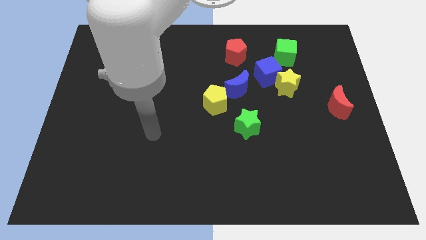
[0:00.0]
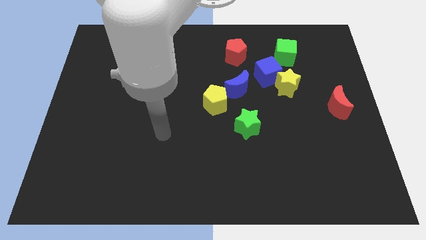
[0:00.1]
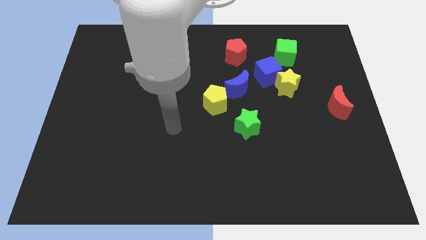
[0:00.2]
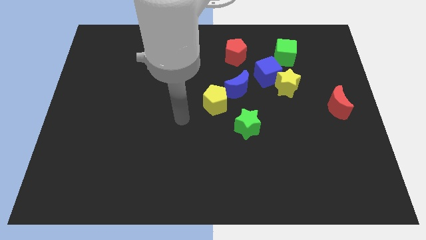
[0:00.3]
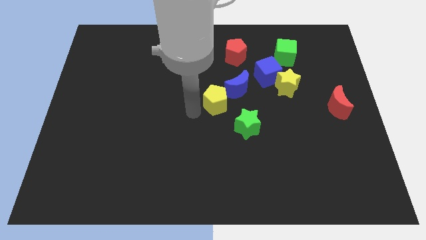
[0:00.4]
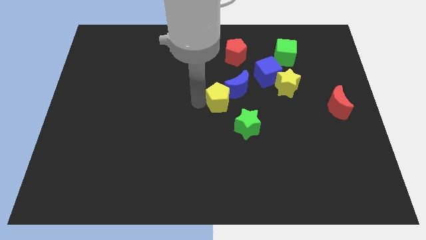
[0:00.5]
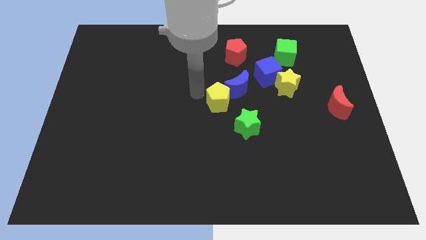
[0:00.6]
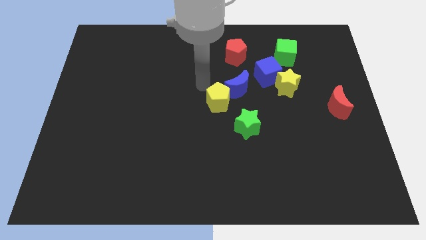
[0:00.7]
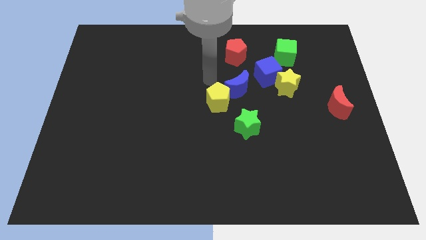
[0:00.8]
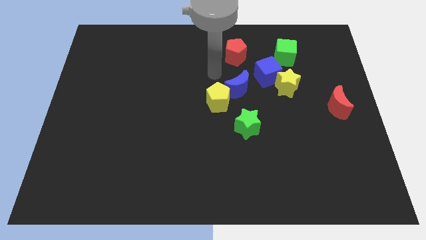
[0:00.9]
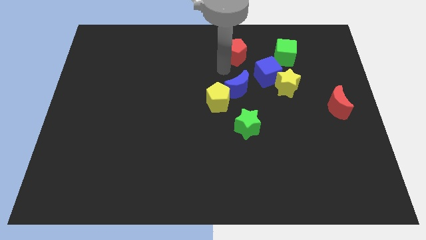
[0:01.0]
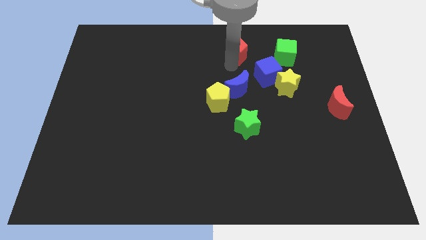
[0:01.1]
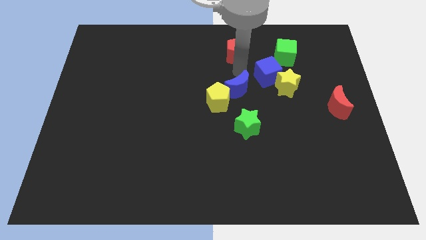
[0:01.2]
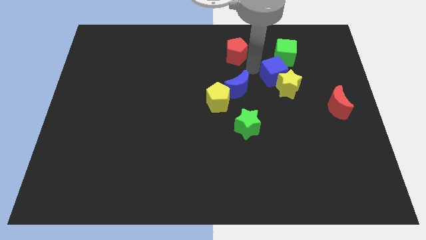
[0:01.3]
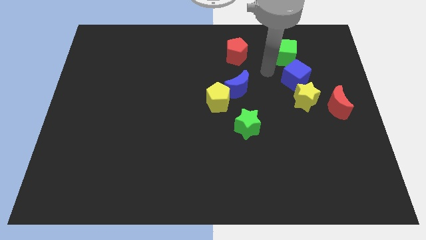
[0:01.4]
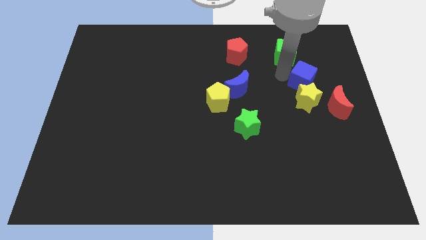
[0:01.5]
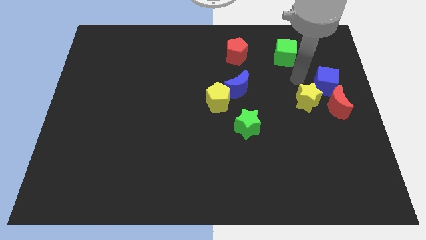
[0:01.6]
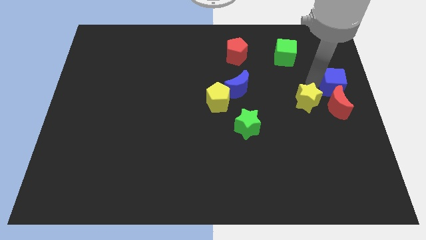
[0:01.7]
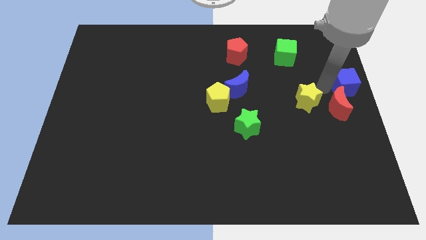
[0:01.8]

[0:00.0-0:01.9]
separate the yellow star from the blue cube

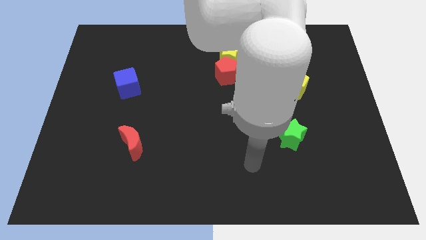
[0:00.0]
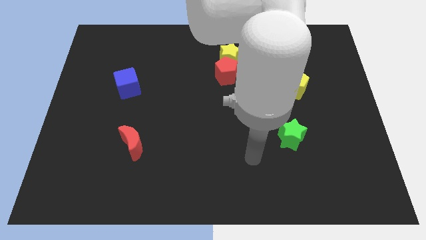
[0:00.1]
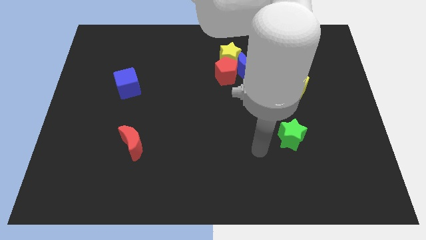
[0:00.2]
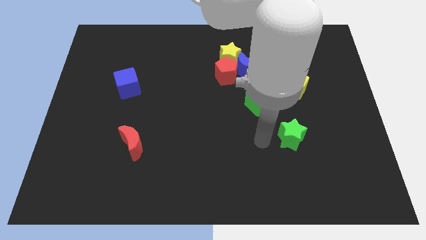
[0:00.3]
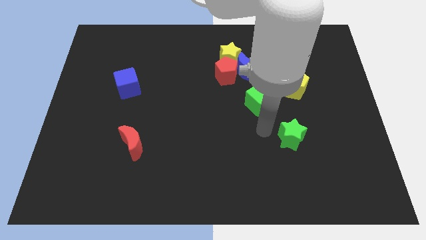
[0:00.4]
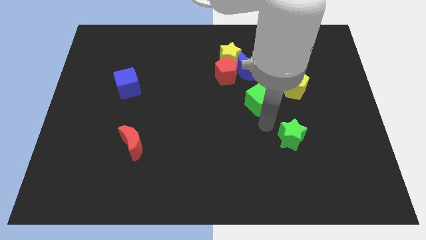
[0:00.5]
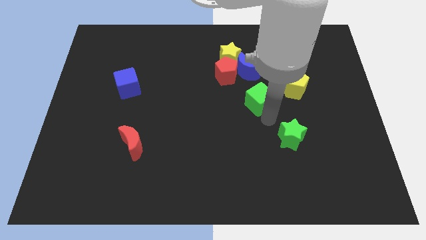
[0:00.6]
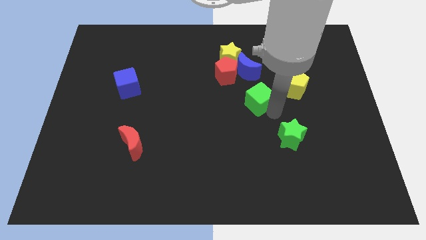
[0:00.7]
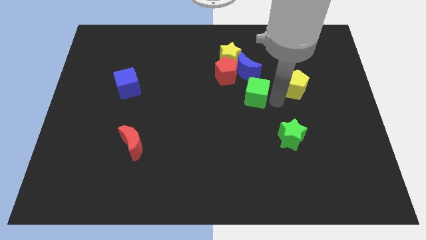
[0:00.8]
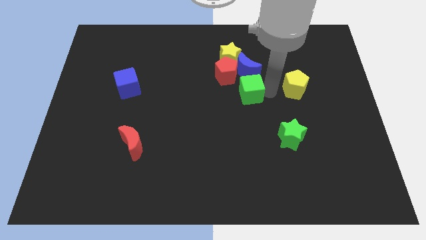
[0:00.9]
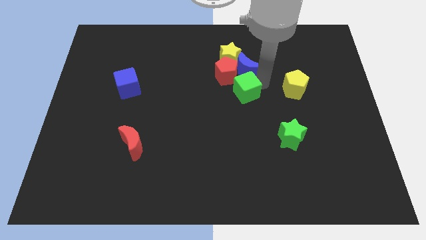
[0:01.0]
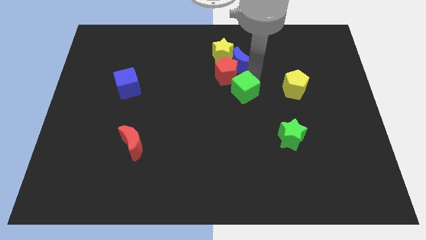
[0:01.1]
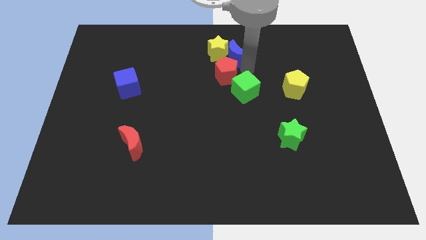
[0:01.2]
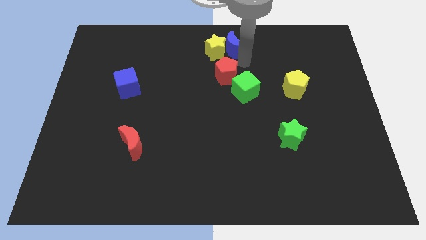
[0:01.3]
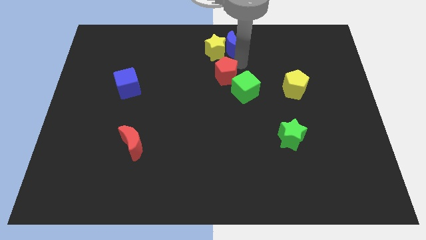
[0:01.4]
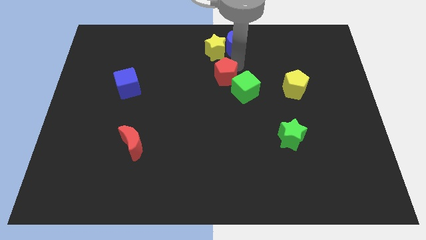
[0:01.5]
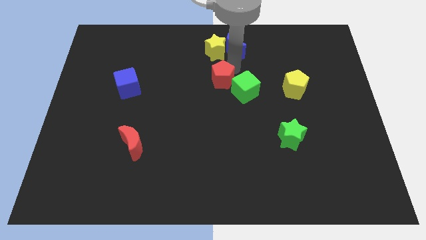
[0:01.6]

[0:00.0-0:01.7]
move the red pentagon away from the blue moon and yellow star

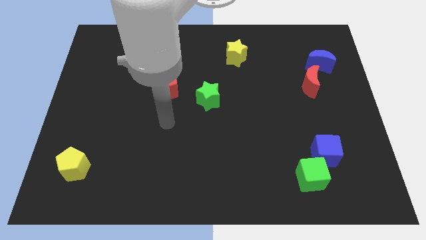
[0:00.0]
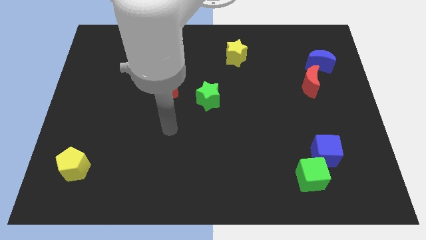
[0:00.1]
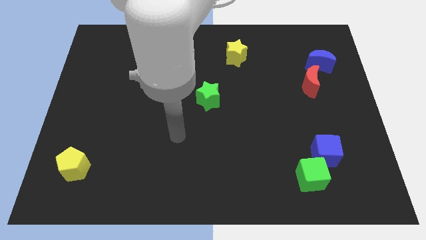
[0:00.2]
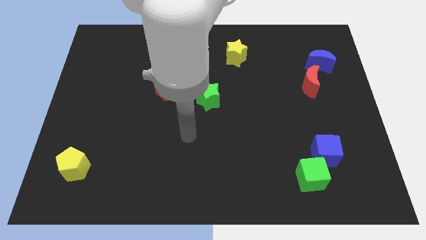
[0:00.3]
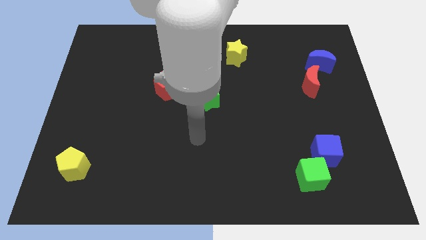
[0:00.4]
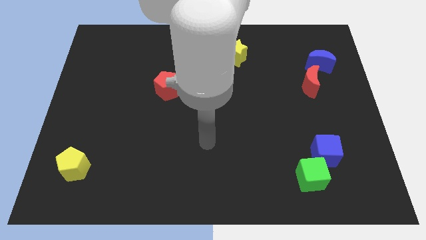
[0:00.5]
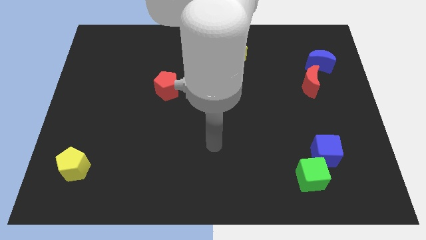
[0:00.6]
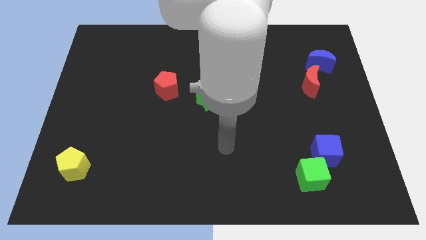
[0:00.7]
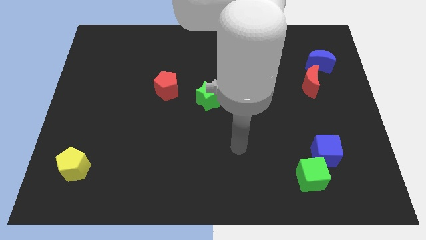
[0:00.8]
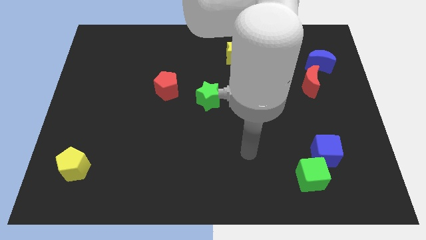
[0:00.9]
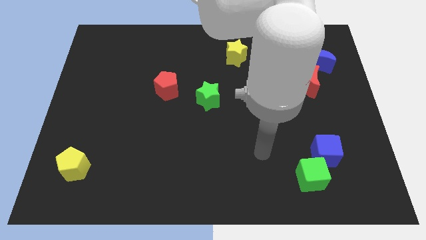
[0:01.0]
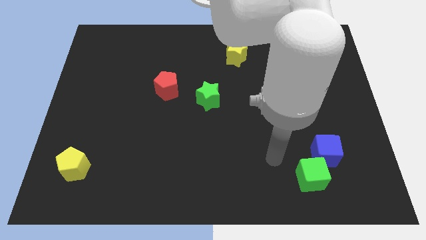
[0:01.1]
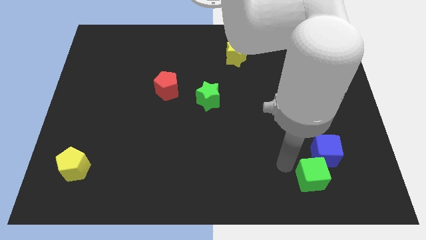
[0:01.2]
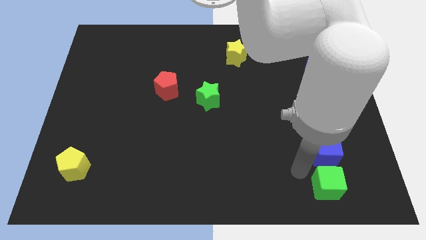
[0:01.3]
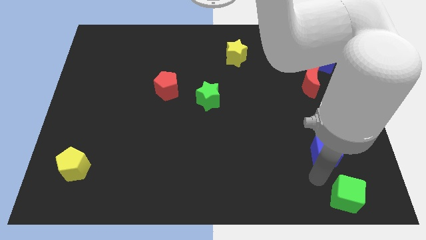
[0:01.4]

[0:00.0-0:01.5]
pull the blue cube apart from the green cube

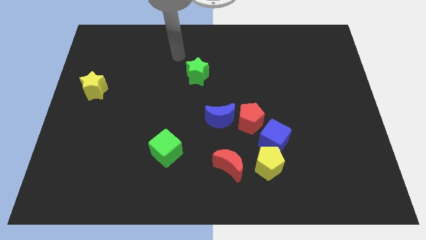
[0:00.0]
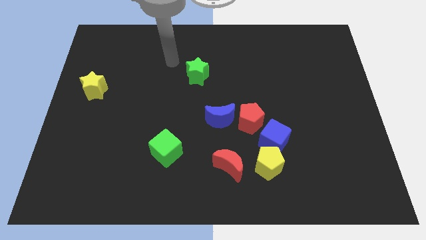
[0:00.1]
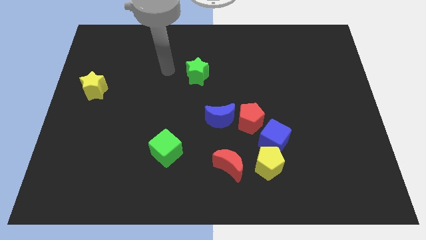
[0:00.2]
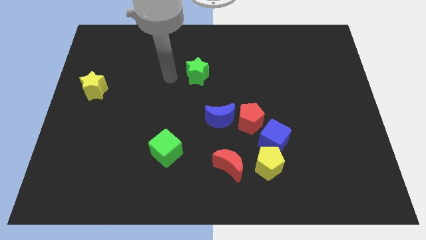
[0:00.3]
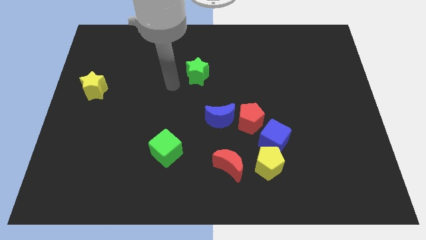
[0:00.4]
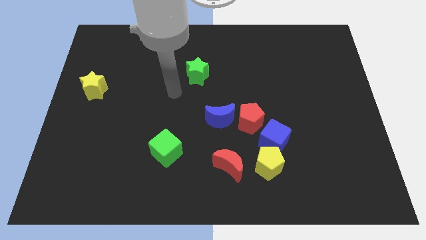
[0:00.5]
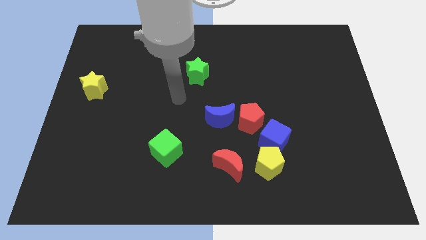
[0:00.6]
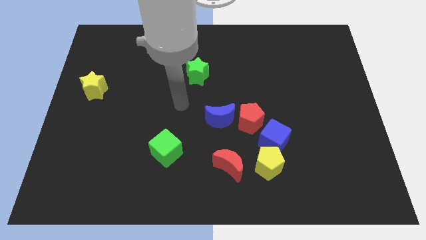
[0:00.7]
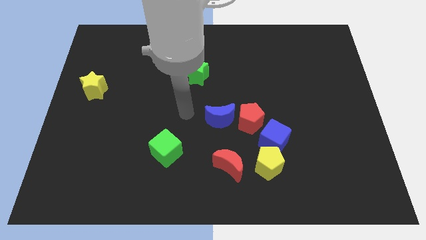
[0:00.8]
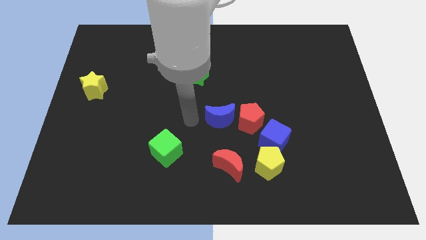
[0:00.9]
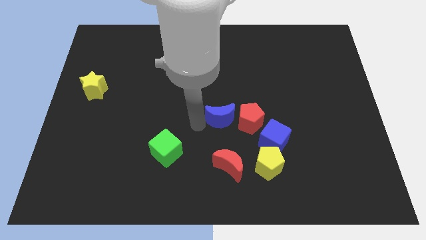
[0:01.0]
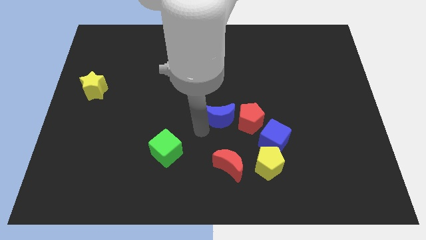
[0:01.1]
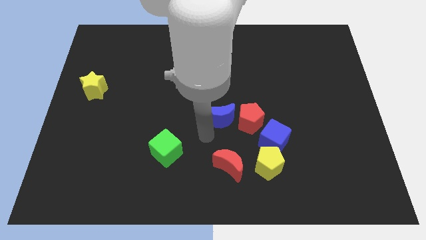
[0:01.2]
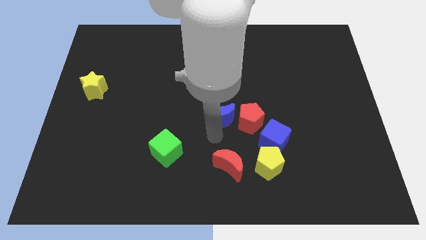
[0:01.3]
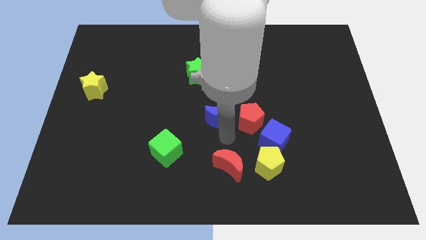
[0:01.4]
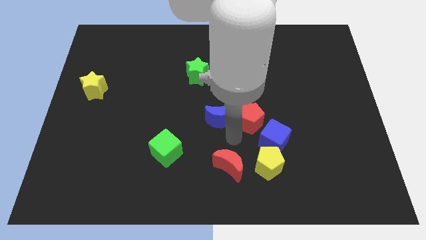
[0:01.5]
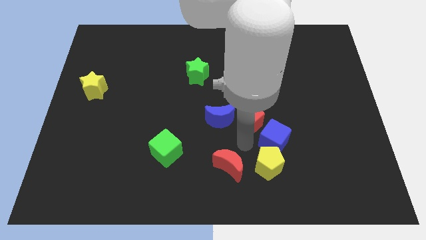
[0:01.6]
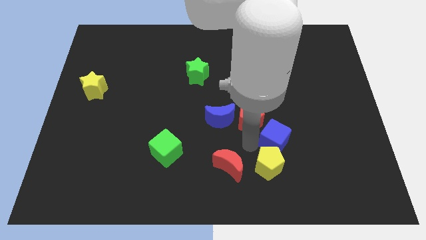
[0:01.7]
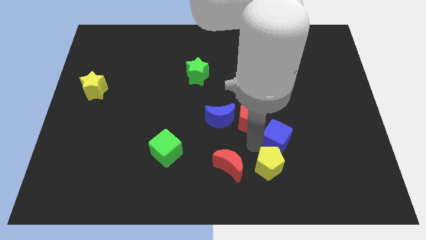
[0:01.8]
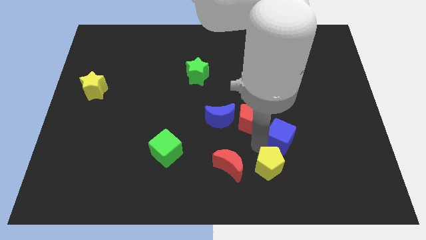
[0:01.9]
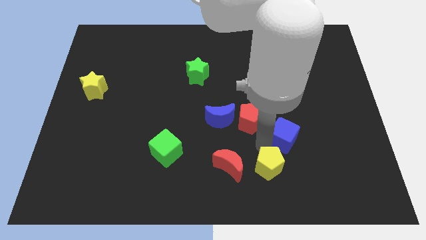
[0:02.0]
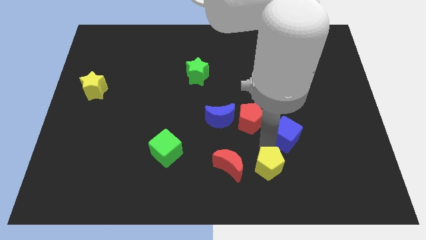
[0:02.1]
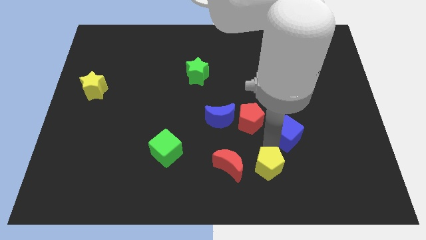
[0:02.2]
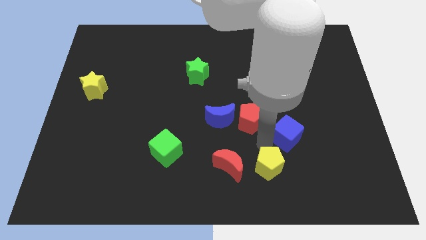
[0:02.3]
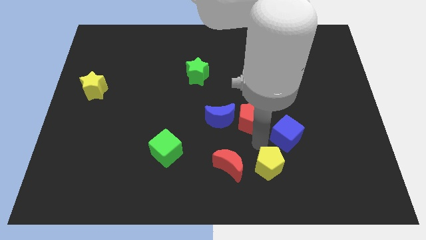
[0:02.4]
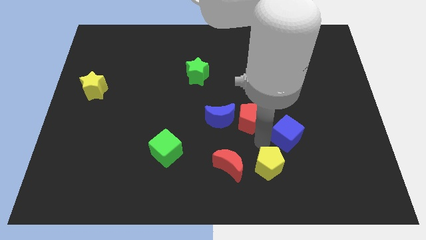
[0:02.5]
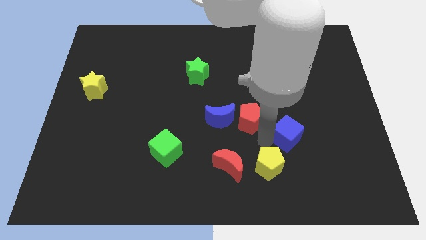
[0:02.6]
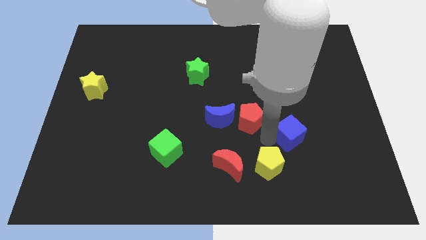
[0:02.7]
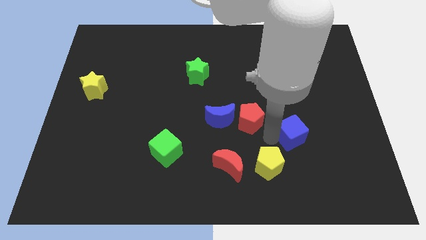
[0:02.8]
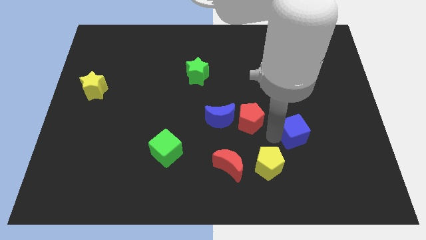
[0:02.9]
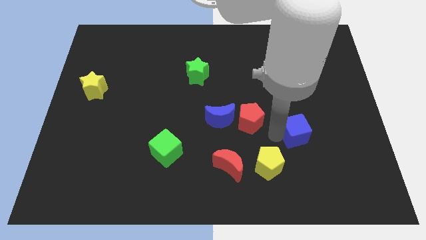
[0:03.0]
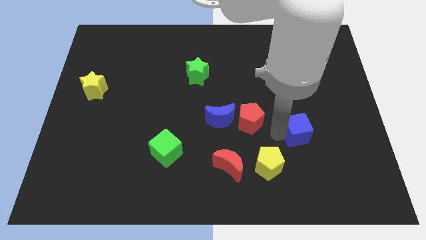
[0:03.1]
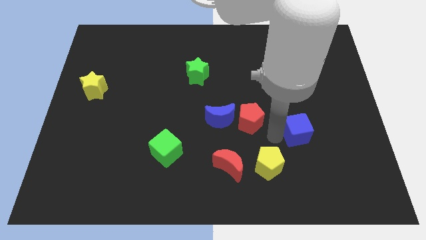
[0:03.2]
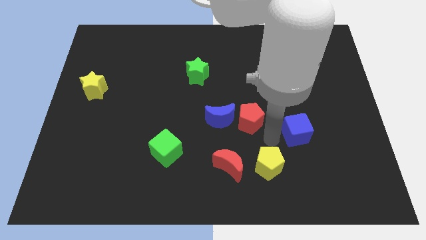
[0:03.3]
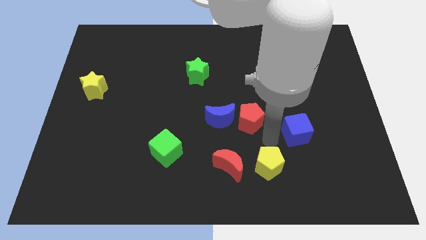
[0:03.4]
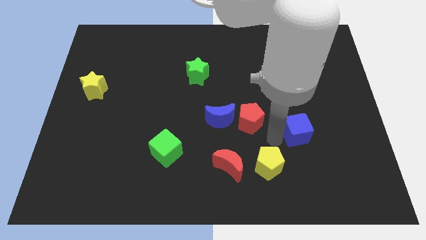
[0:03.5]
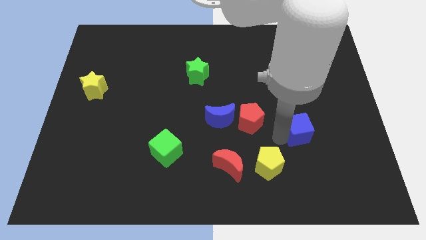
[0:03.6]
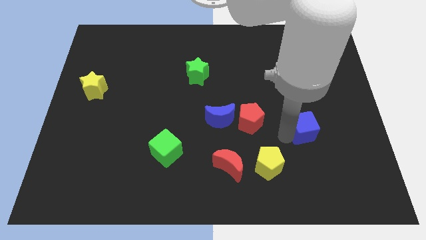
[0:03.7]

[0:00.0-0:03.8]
pull the blue cube apart from the yellow pentagon and red pentagon

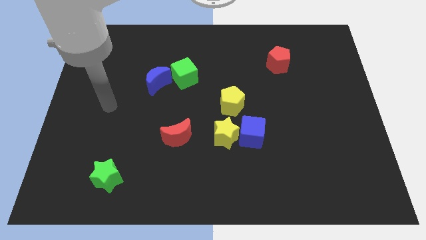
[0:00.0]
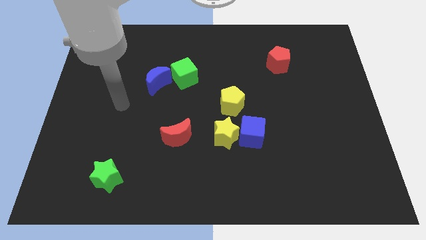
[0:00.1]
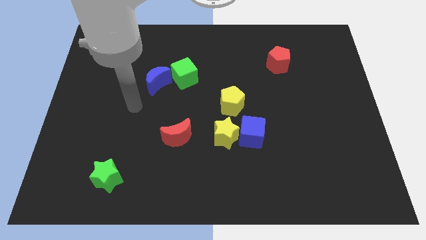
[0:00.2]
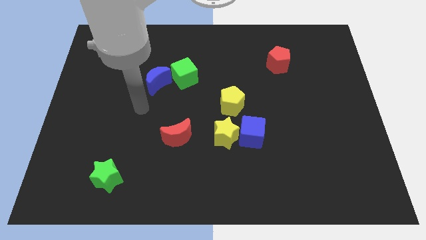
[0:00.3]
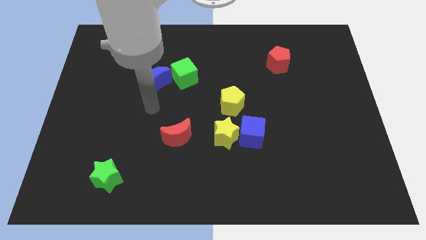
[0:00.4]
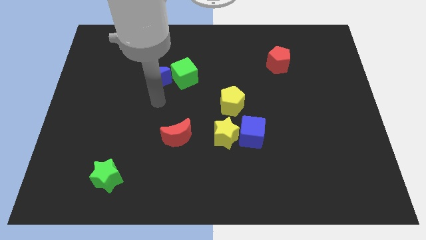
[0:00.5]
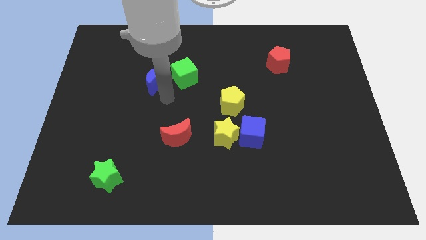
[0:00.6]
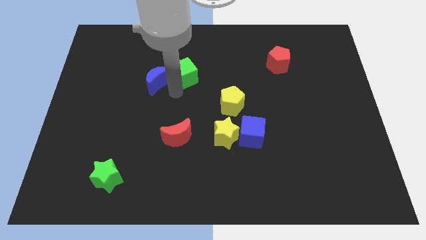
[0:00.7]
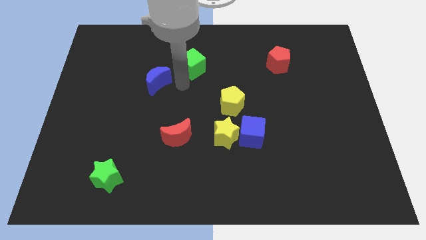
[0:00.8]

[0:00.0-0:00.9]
move the blue moon away from the green cube
